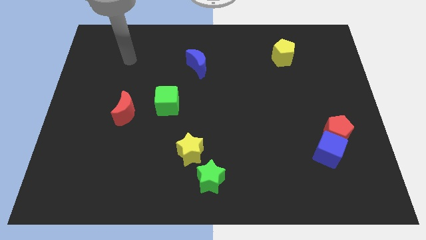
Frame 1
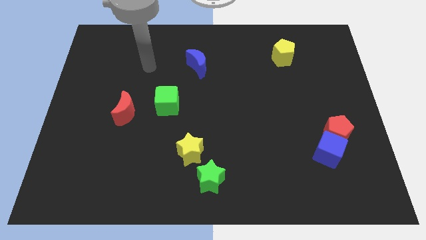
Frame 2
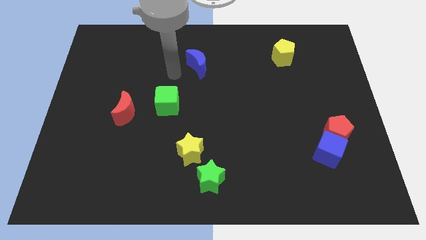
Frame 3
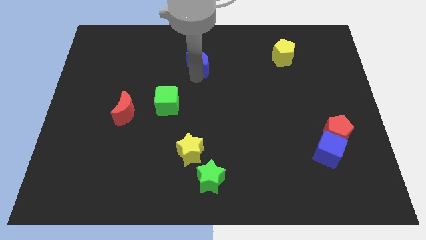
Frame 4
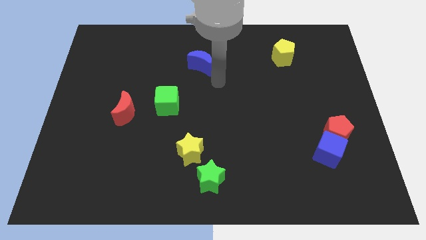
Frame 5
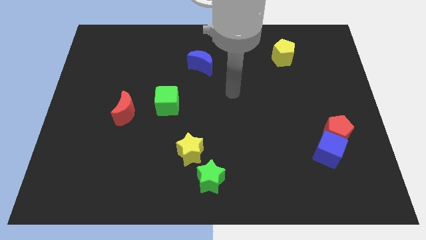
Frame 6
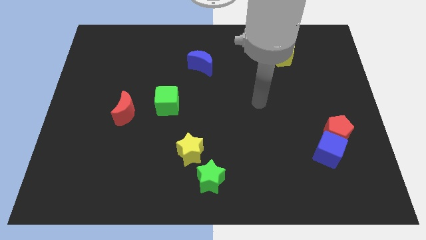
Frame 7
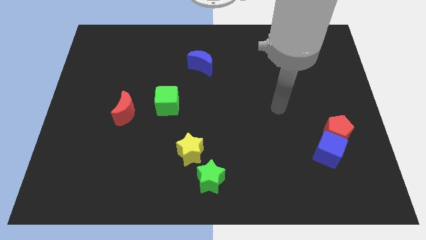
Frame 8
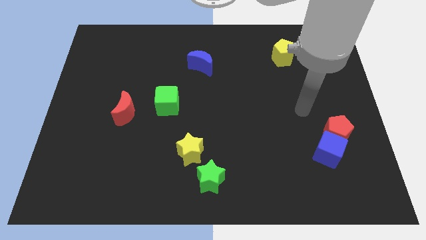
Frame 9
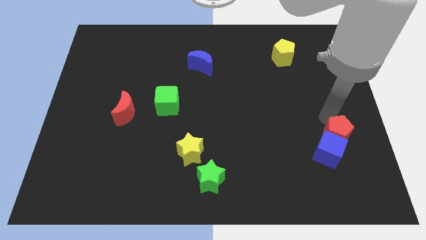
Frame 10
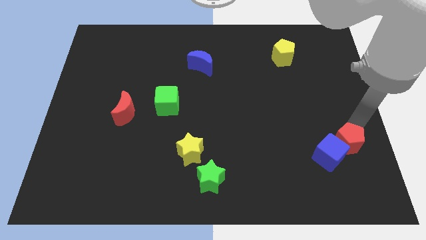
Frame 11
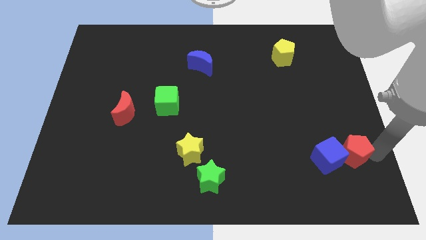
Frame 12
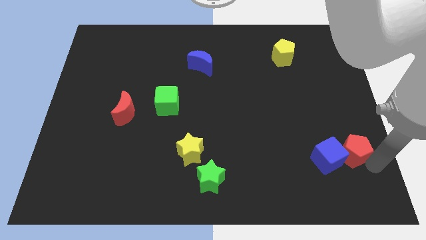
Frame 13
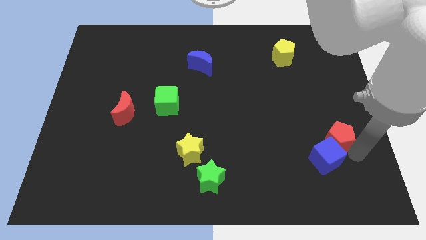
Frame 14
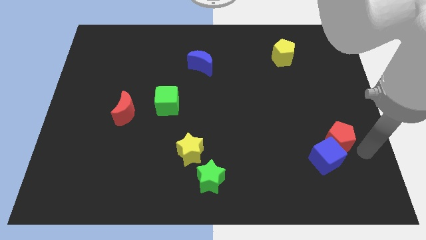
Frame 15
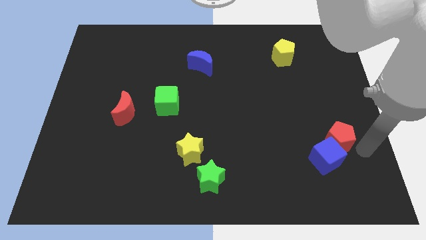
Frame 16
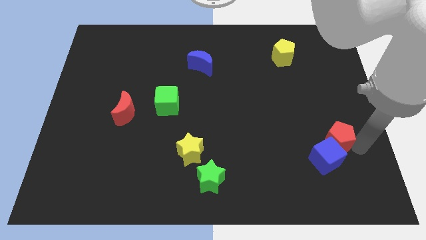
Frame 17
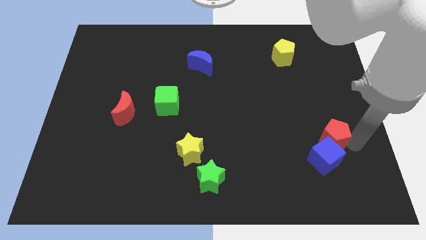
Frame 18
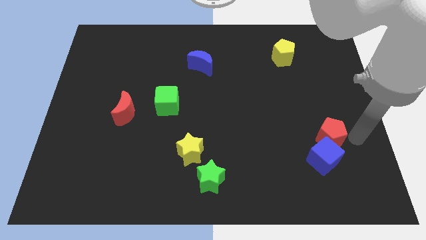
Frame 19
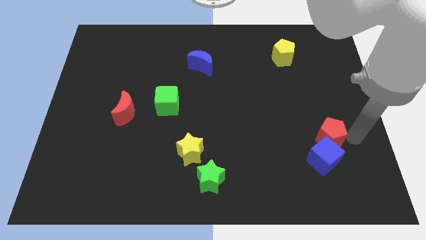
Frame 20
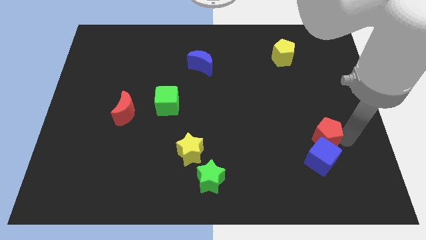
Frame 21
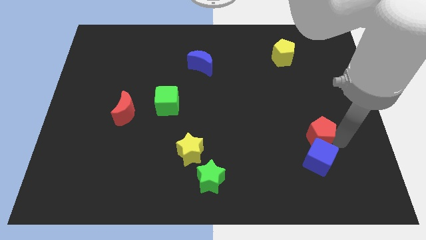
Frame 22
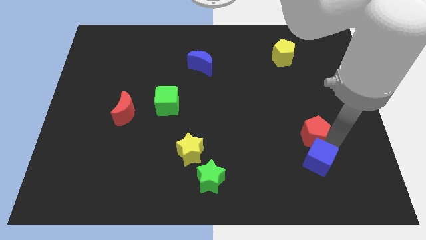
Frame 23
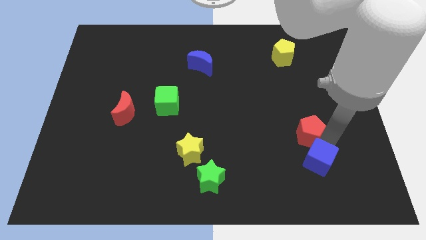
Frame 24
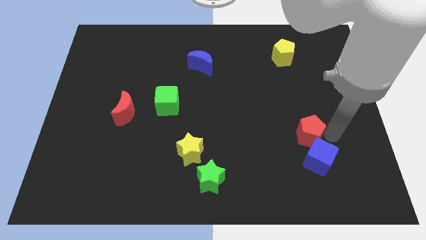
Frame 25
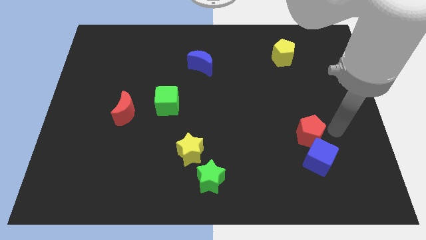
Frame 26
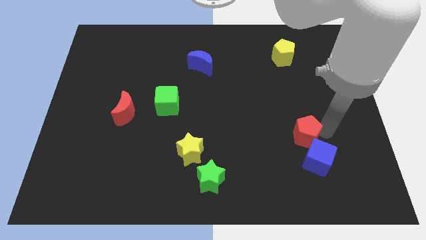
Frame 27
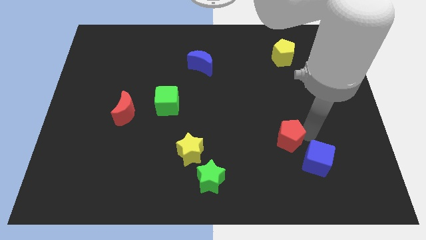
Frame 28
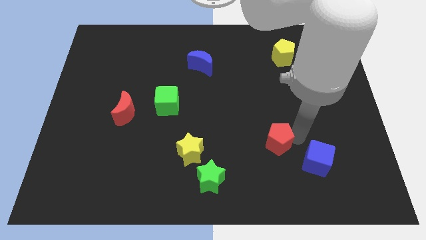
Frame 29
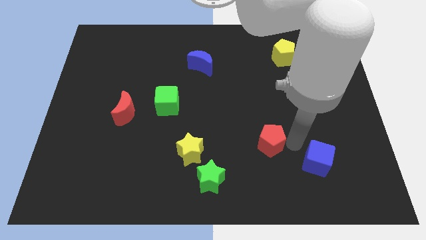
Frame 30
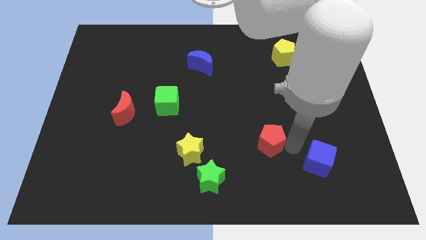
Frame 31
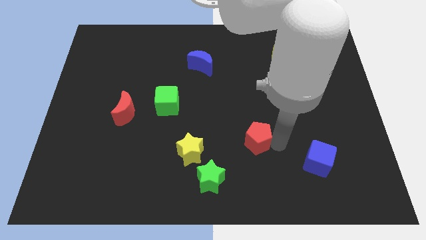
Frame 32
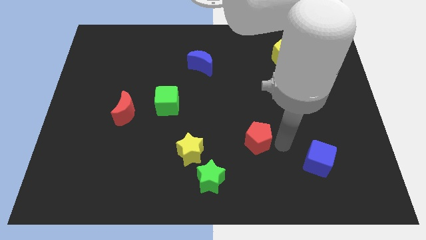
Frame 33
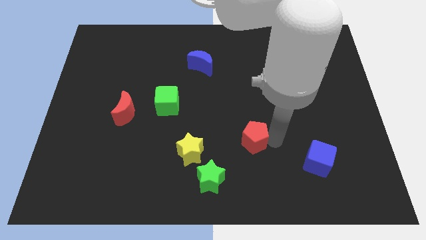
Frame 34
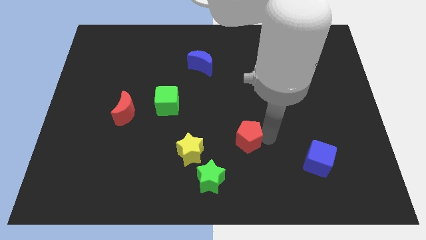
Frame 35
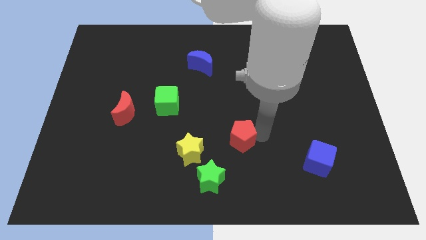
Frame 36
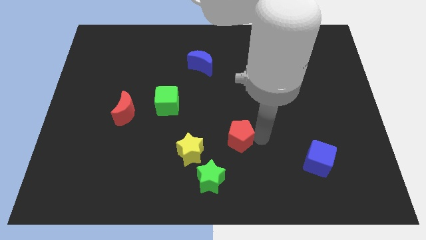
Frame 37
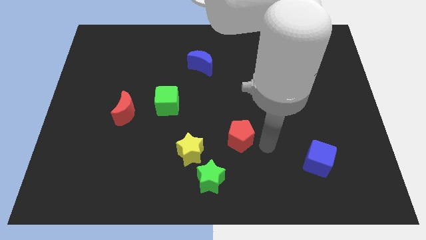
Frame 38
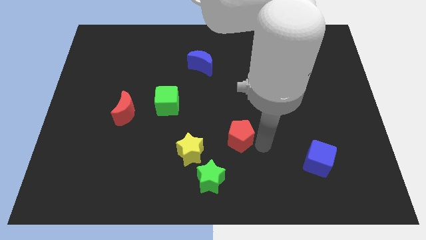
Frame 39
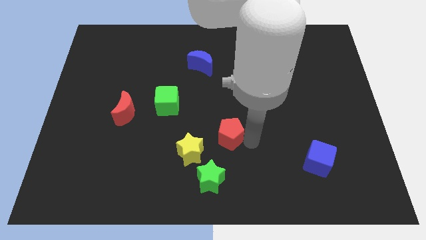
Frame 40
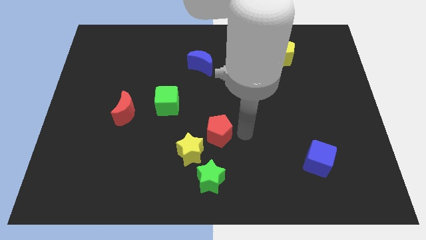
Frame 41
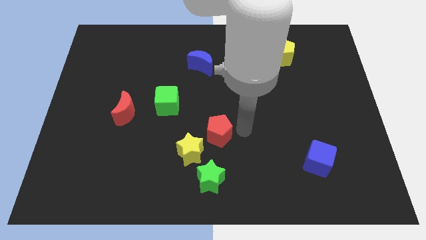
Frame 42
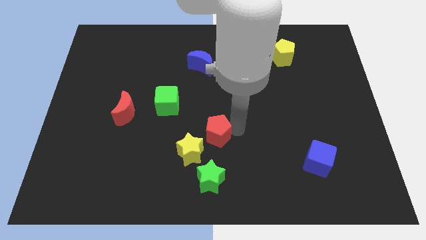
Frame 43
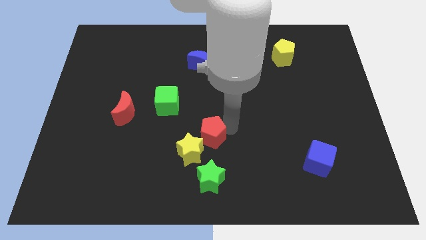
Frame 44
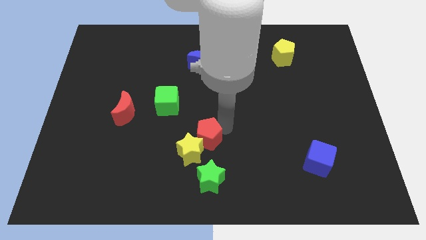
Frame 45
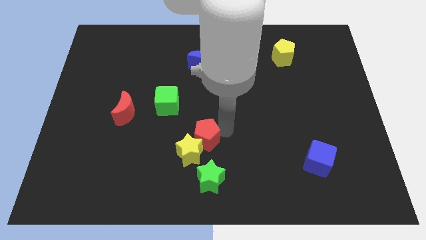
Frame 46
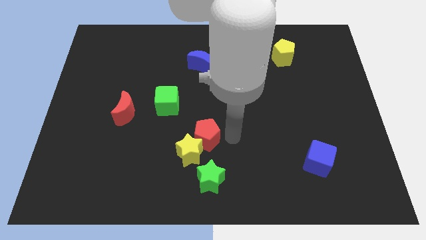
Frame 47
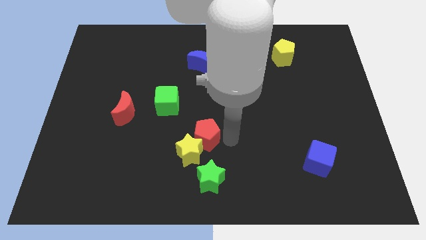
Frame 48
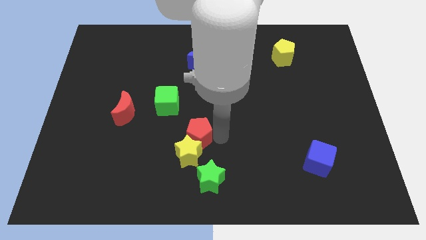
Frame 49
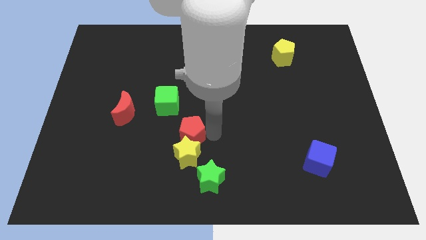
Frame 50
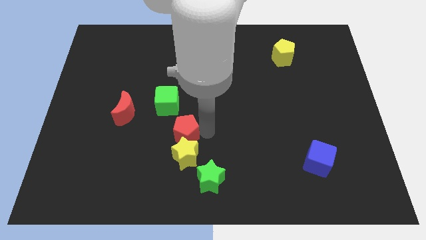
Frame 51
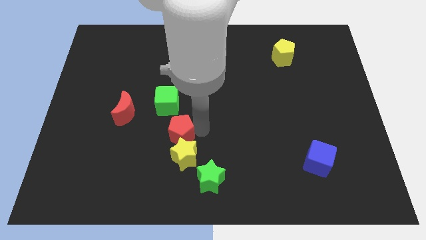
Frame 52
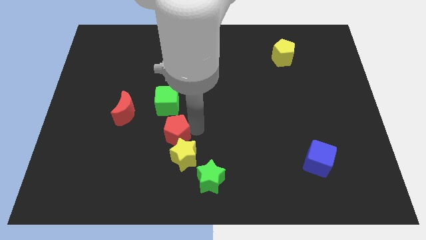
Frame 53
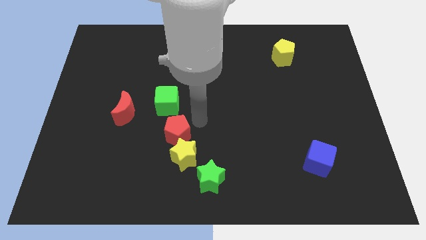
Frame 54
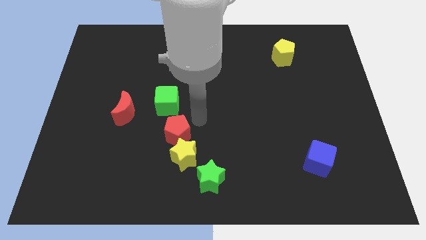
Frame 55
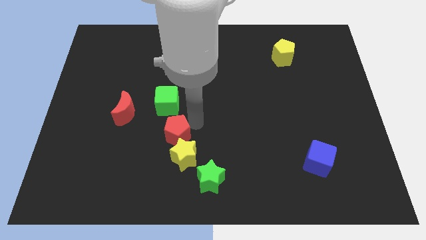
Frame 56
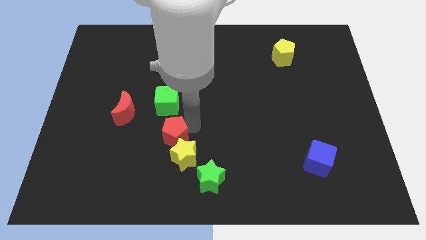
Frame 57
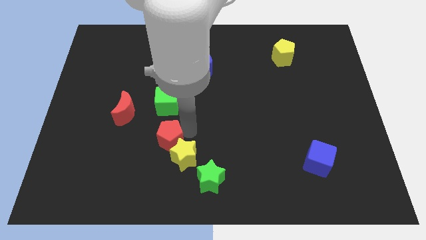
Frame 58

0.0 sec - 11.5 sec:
move the red pentagon to the left side of the yellow star

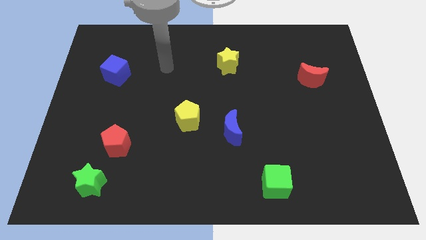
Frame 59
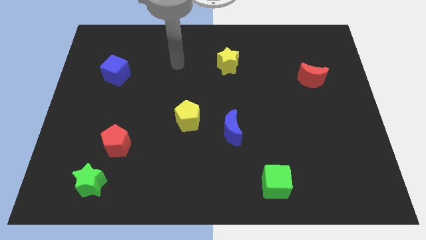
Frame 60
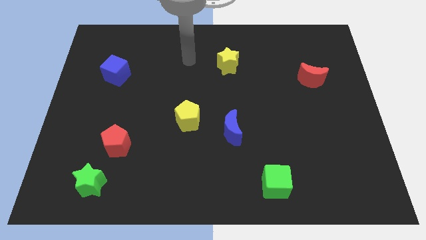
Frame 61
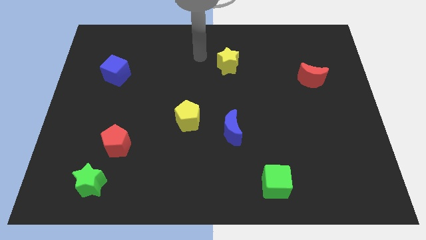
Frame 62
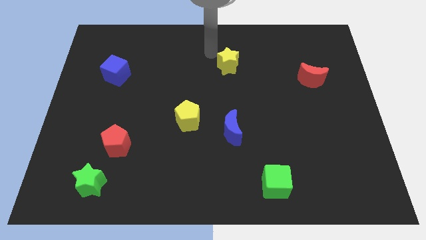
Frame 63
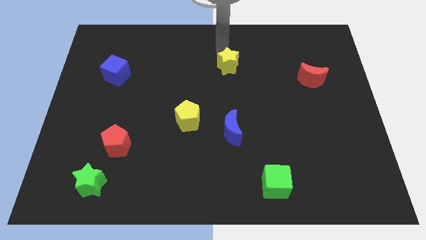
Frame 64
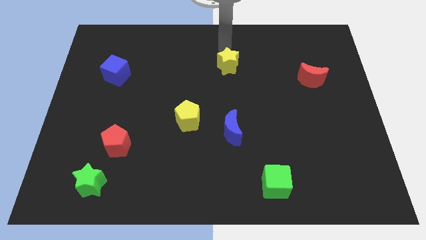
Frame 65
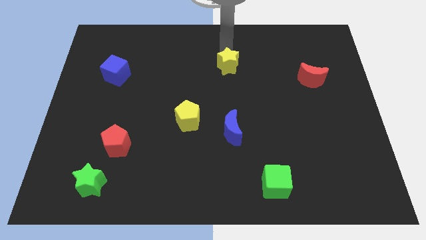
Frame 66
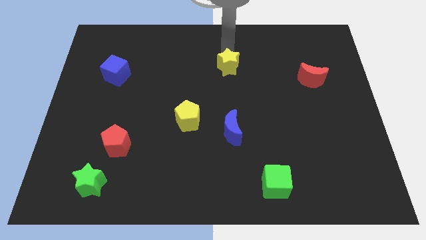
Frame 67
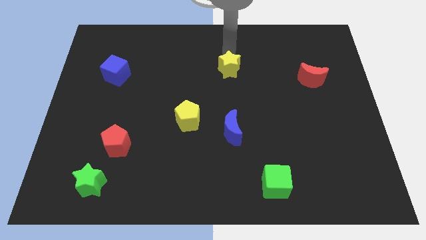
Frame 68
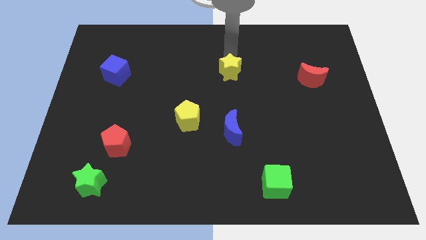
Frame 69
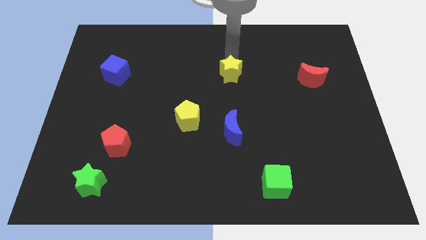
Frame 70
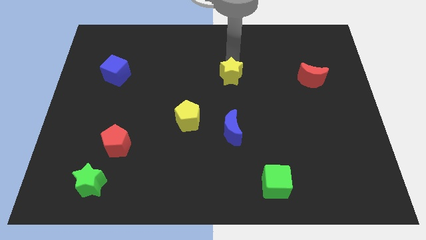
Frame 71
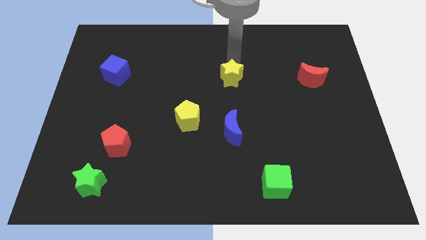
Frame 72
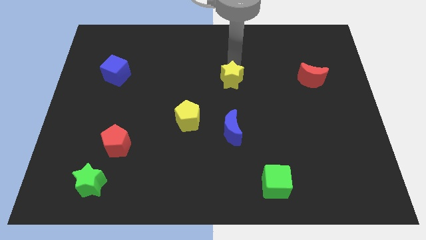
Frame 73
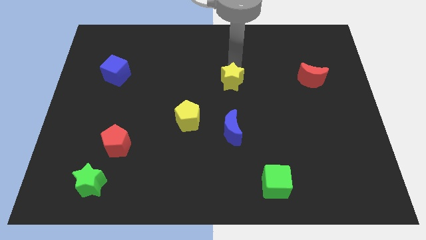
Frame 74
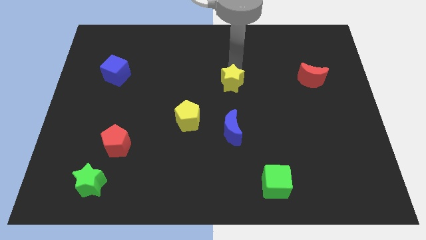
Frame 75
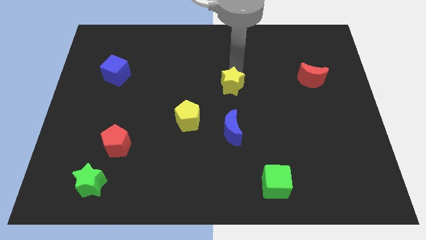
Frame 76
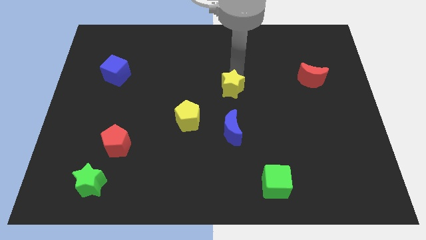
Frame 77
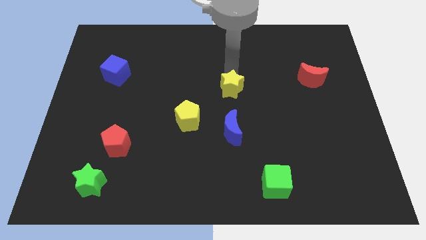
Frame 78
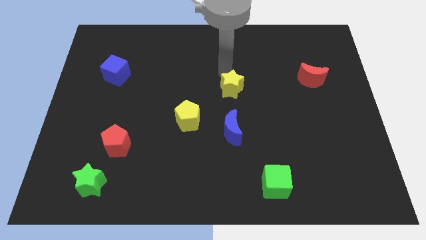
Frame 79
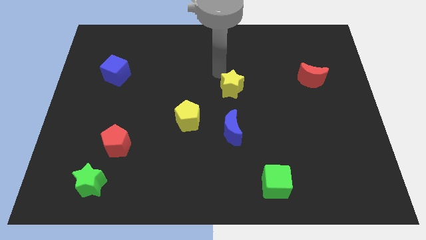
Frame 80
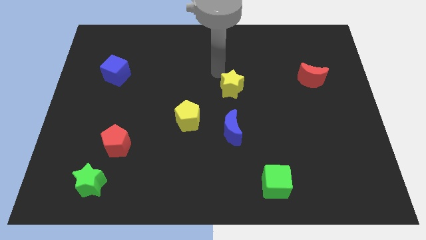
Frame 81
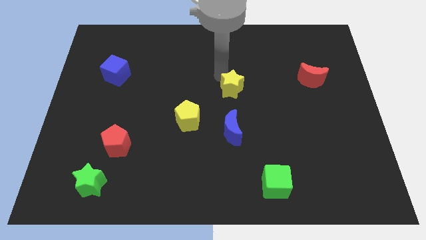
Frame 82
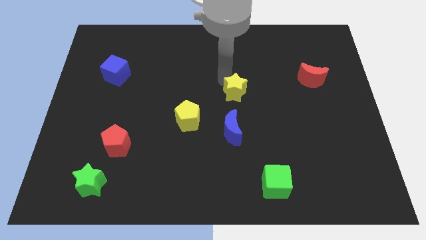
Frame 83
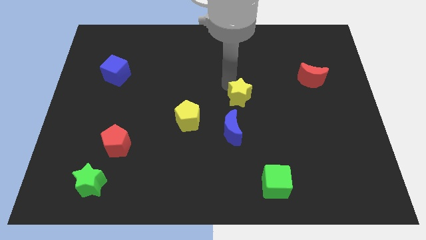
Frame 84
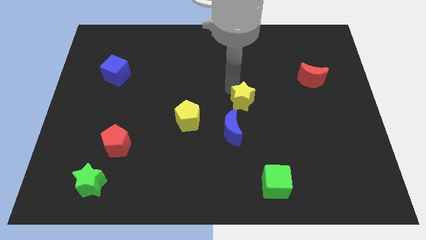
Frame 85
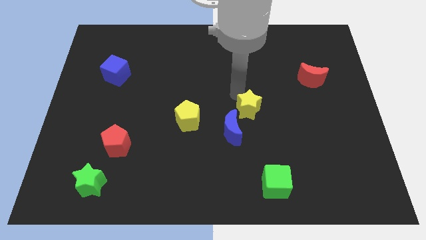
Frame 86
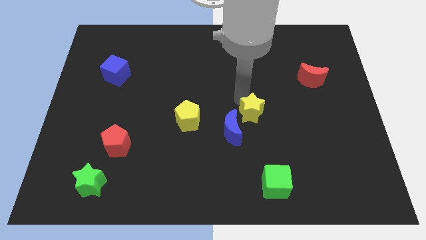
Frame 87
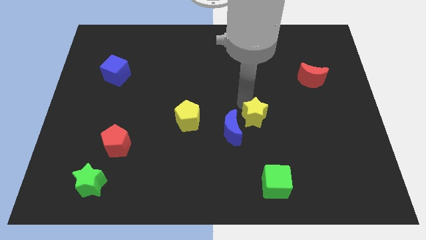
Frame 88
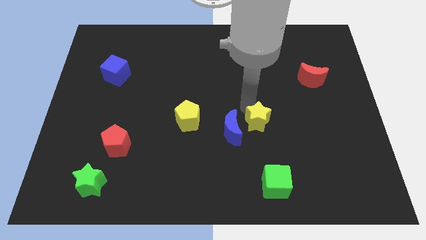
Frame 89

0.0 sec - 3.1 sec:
put the yellow star to the top of the green cube
